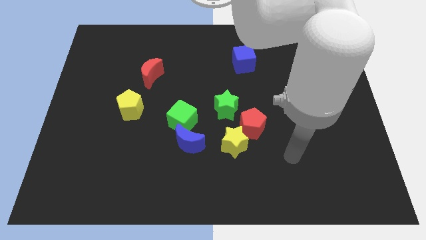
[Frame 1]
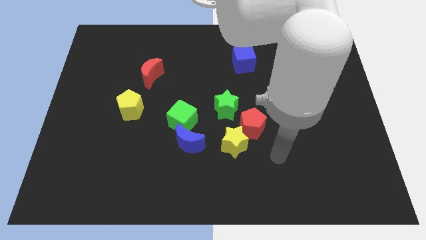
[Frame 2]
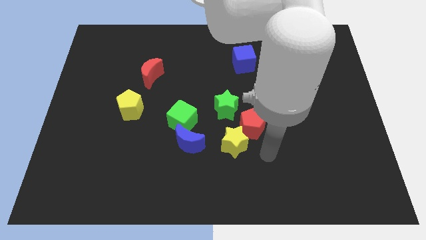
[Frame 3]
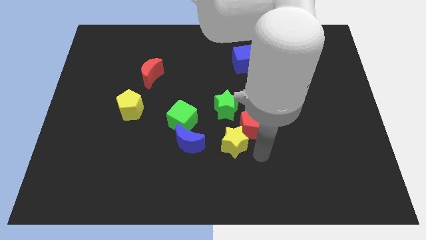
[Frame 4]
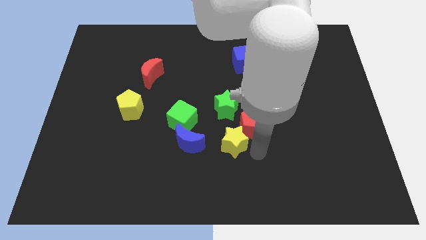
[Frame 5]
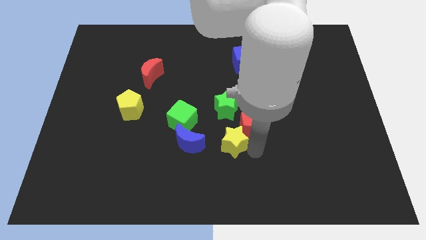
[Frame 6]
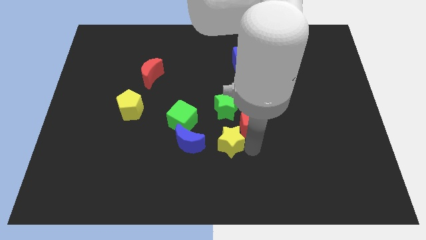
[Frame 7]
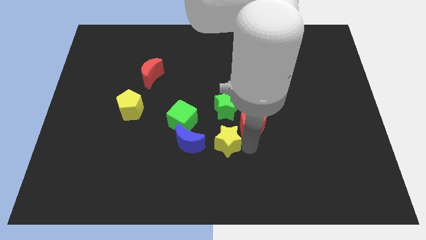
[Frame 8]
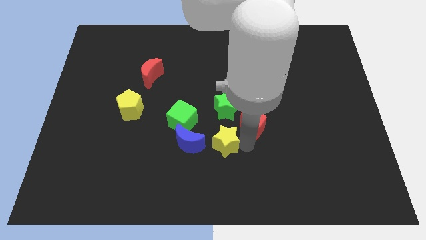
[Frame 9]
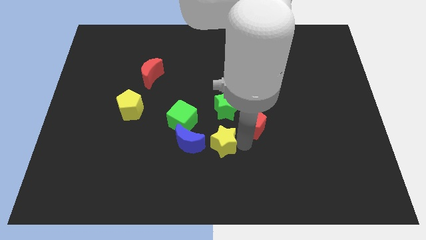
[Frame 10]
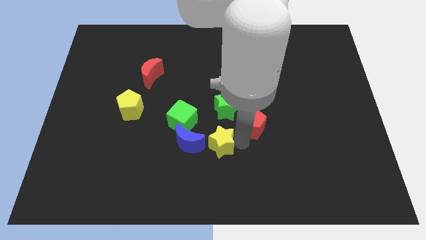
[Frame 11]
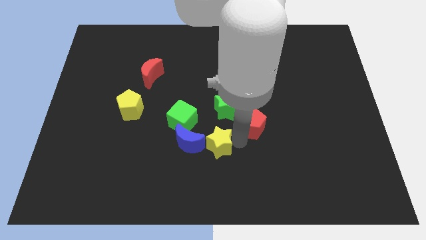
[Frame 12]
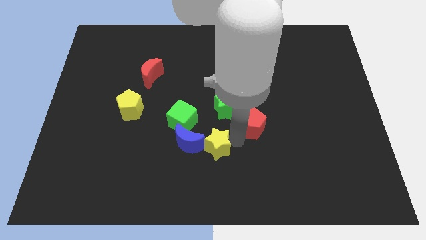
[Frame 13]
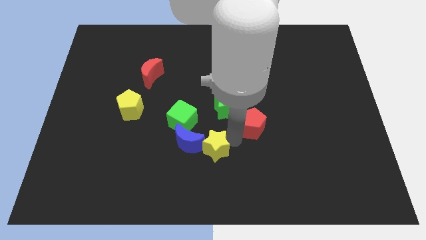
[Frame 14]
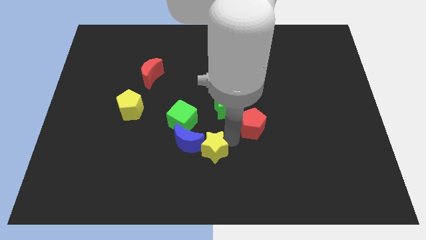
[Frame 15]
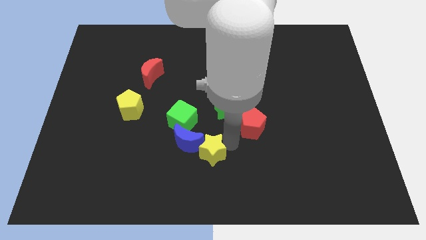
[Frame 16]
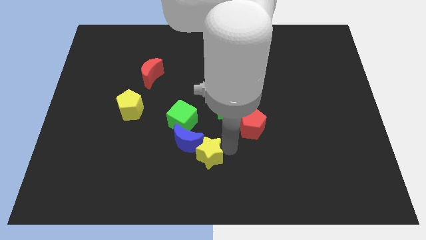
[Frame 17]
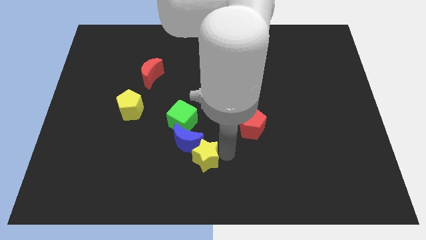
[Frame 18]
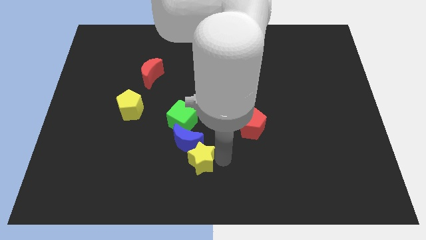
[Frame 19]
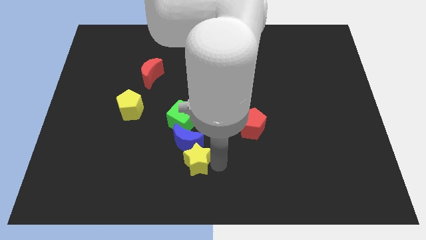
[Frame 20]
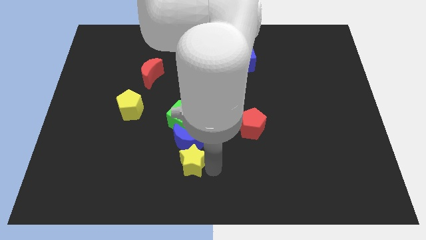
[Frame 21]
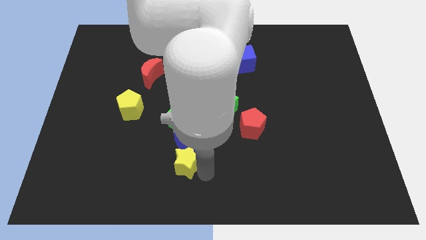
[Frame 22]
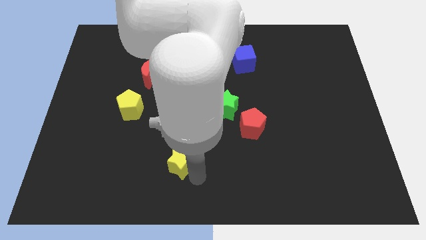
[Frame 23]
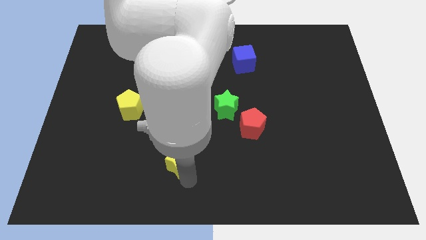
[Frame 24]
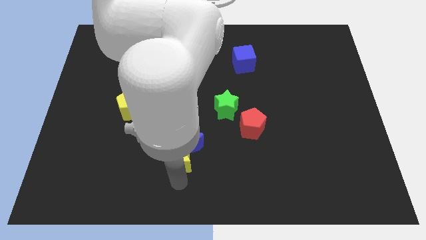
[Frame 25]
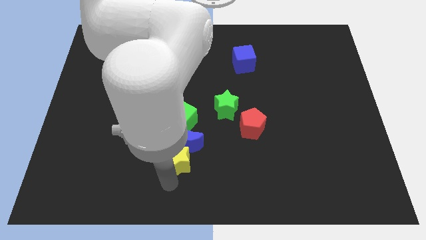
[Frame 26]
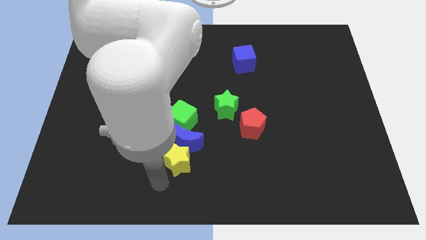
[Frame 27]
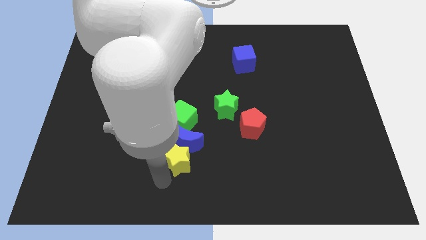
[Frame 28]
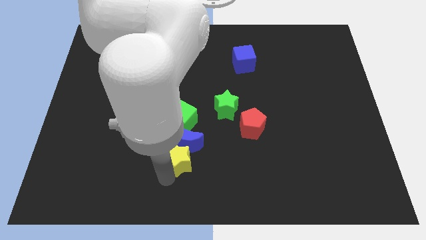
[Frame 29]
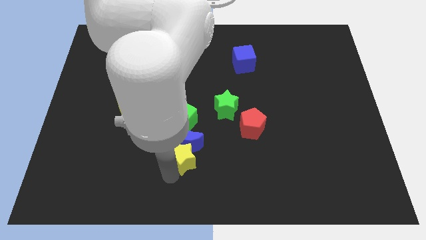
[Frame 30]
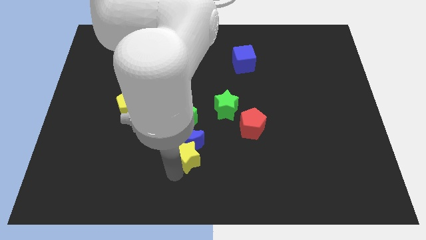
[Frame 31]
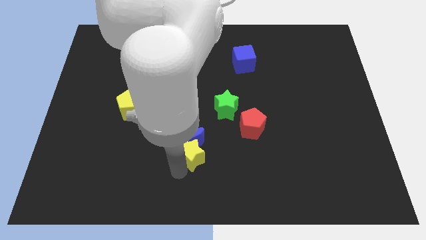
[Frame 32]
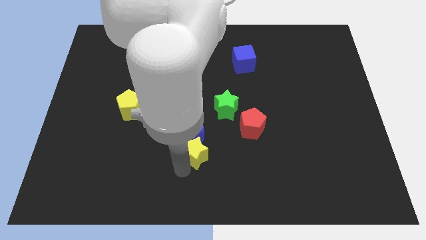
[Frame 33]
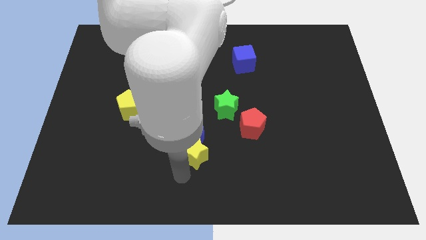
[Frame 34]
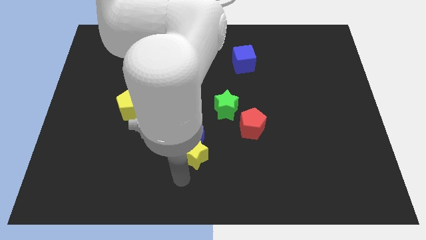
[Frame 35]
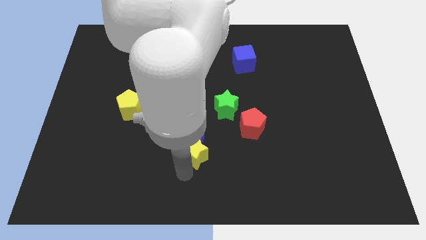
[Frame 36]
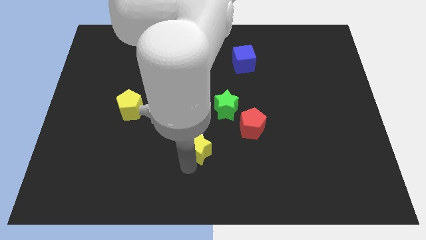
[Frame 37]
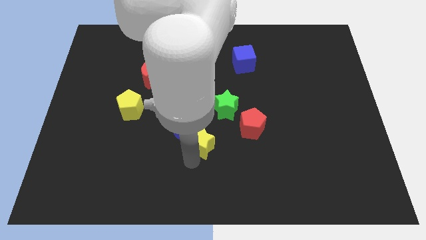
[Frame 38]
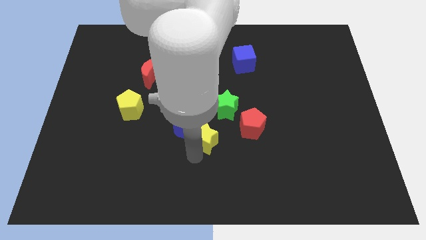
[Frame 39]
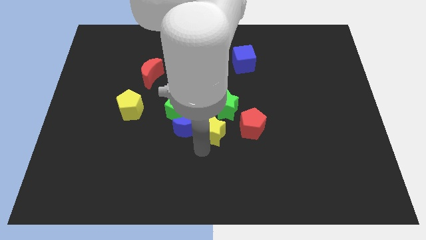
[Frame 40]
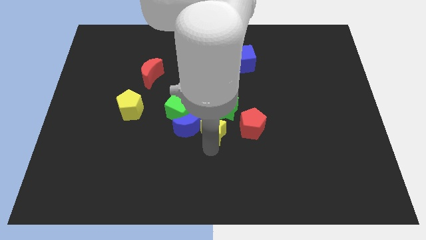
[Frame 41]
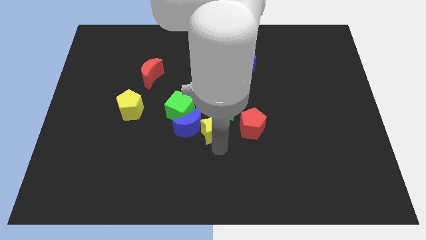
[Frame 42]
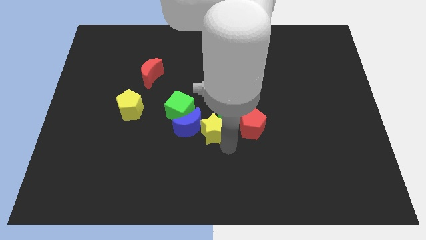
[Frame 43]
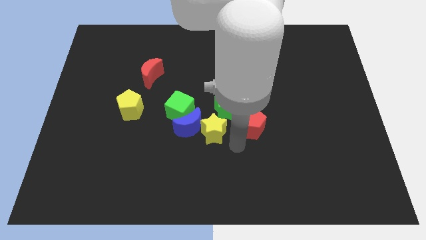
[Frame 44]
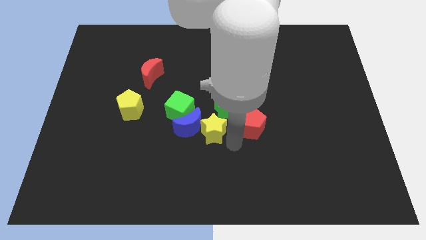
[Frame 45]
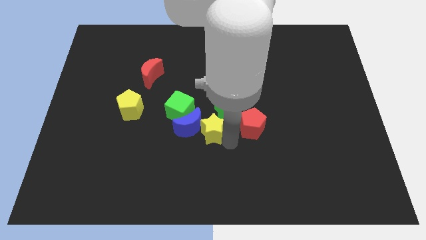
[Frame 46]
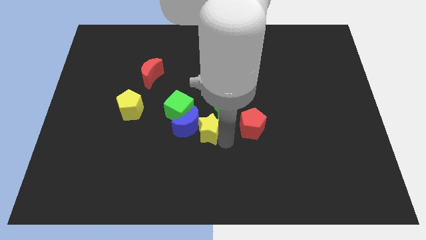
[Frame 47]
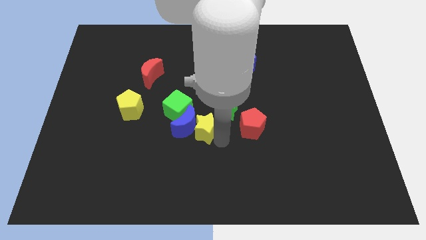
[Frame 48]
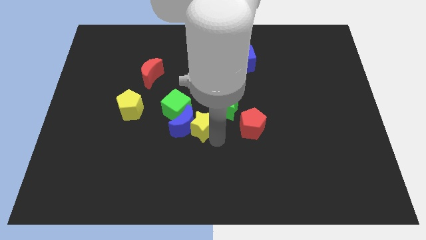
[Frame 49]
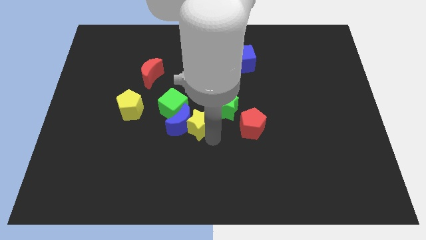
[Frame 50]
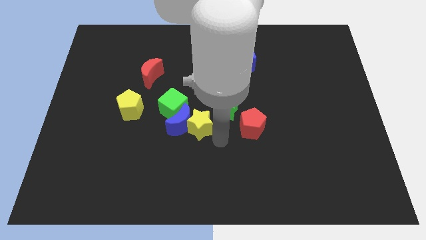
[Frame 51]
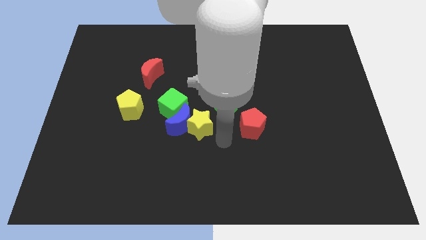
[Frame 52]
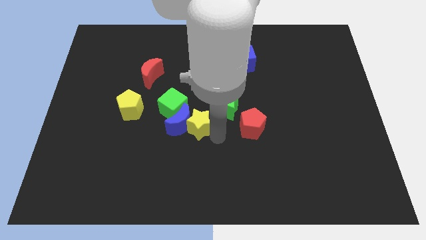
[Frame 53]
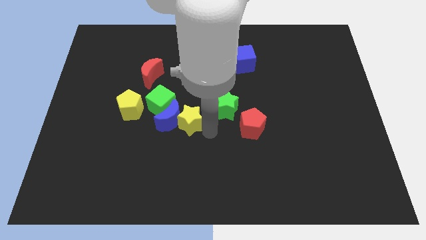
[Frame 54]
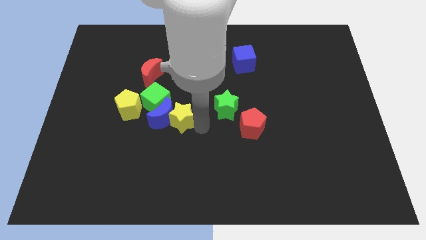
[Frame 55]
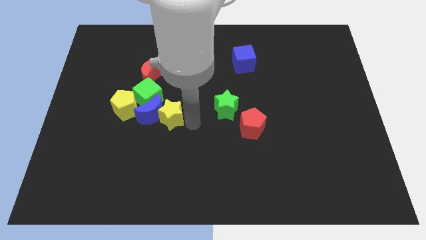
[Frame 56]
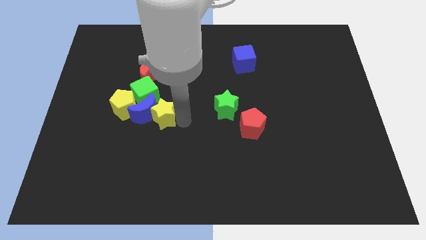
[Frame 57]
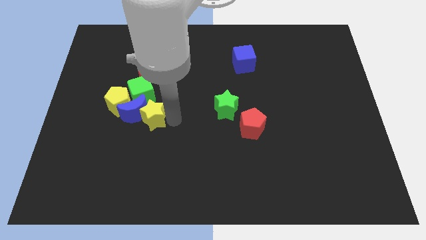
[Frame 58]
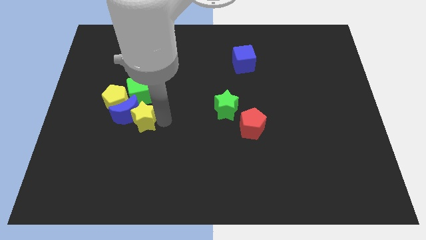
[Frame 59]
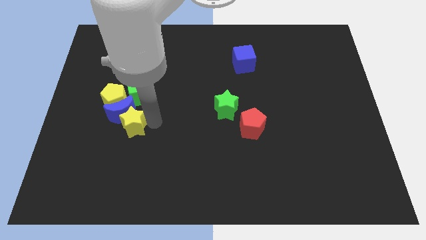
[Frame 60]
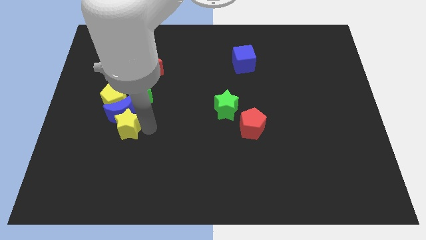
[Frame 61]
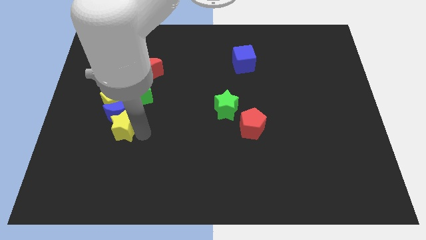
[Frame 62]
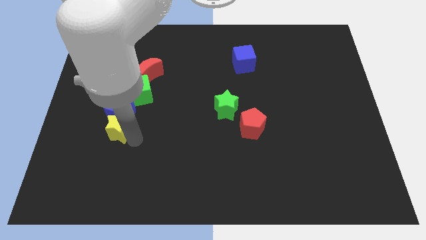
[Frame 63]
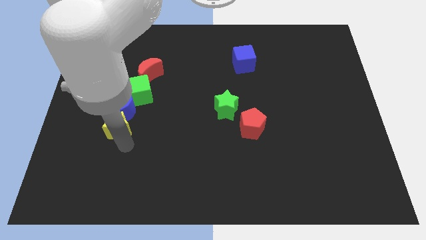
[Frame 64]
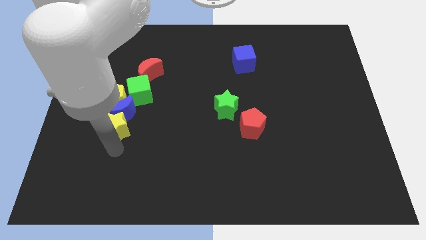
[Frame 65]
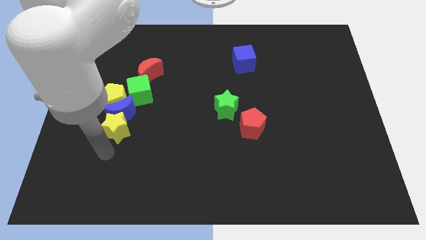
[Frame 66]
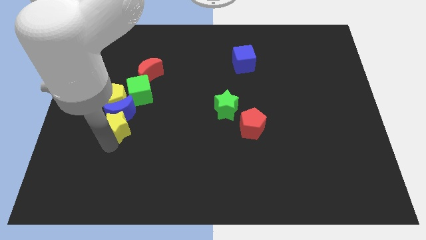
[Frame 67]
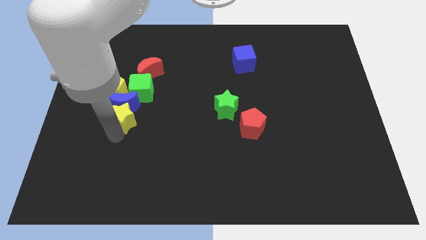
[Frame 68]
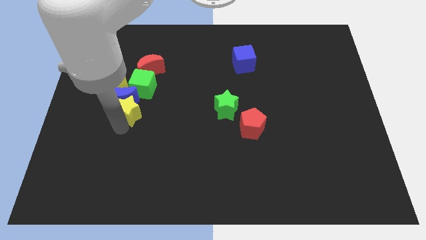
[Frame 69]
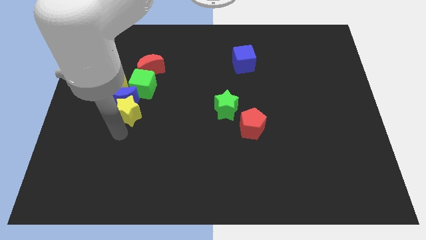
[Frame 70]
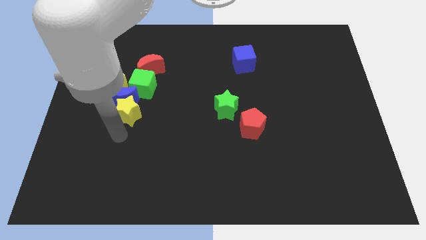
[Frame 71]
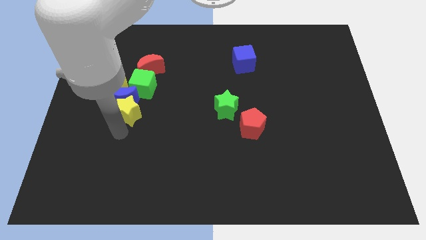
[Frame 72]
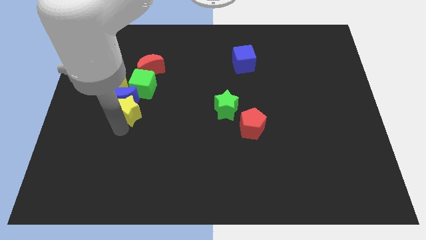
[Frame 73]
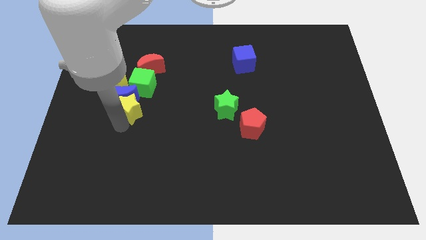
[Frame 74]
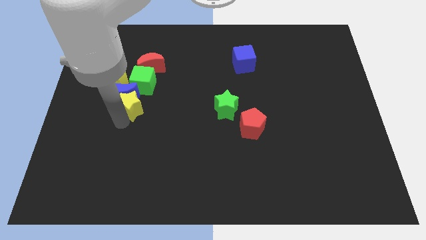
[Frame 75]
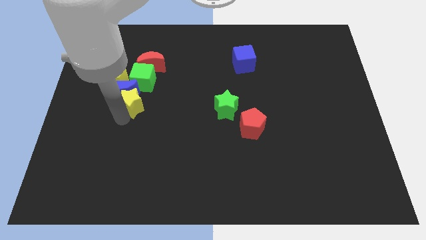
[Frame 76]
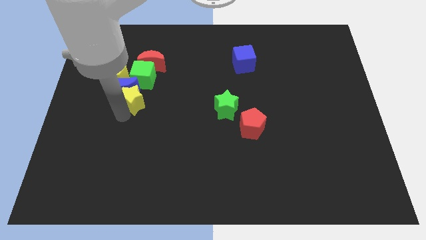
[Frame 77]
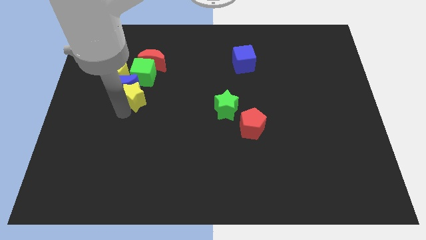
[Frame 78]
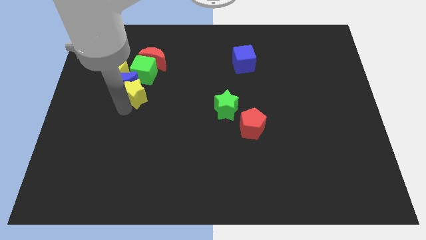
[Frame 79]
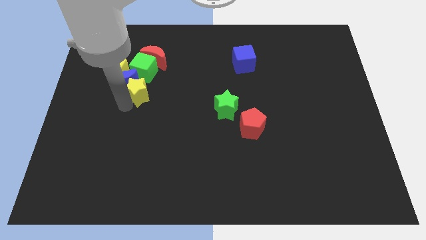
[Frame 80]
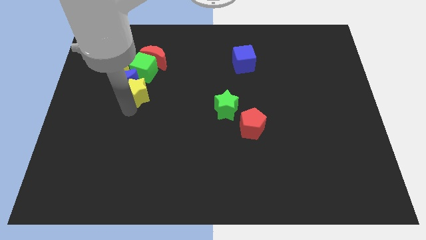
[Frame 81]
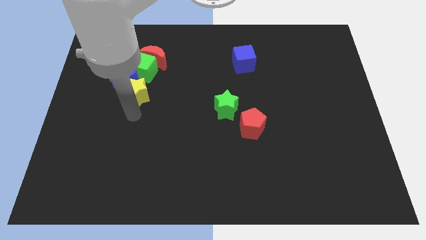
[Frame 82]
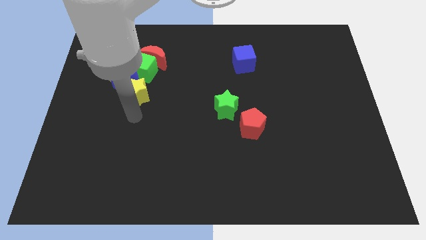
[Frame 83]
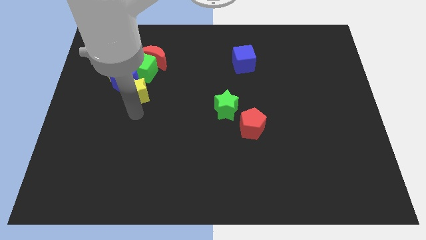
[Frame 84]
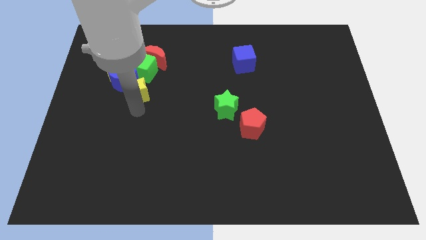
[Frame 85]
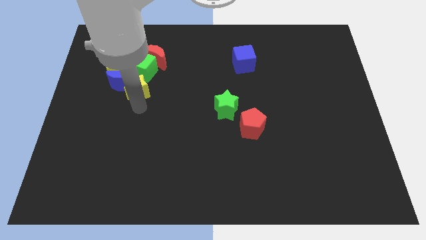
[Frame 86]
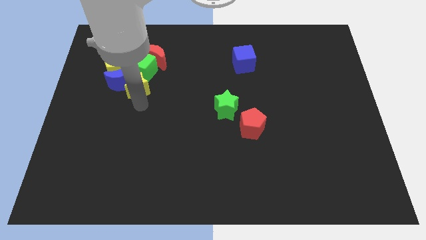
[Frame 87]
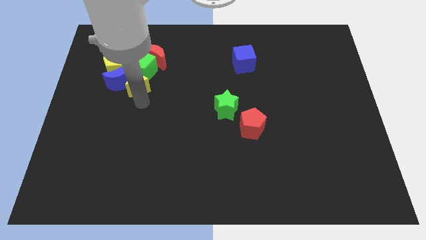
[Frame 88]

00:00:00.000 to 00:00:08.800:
move the yellow star to the green cube
